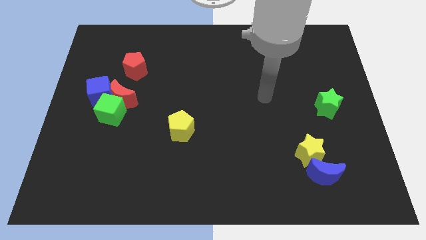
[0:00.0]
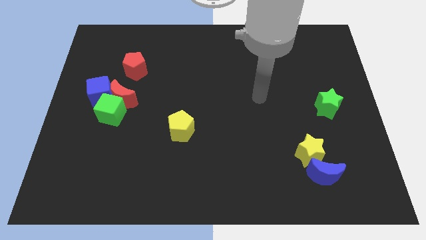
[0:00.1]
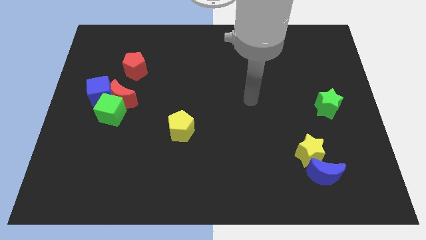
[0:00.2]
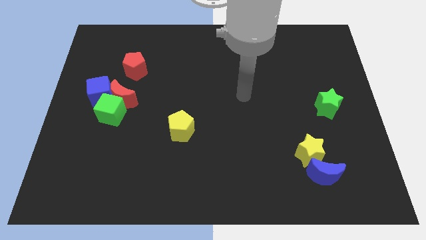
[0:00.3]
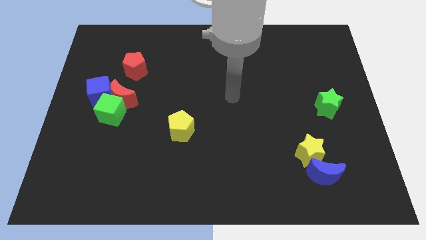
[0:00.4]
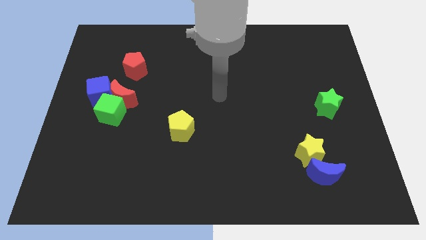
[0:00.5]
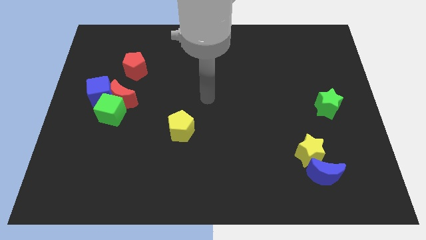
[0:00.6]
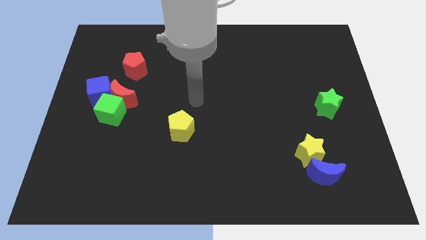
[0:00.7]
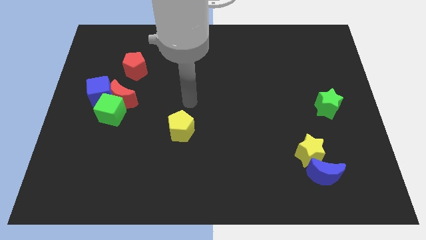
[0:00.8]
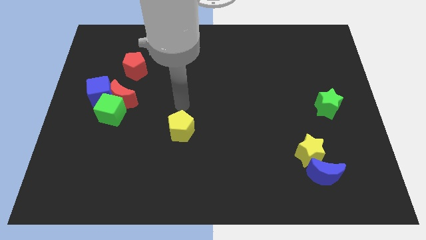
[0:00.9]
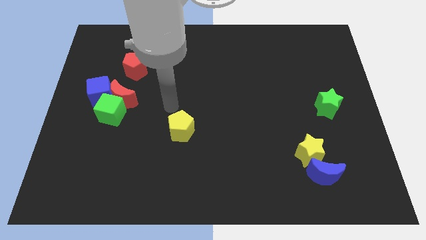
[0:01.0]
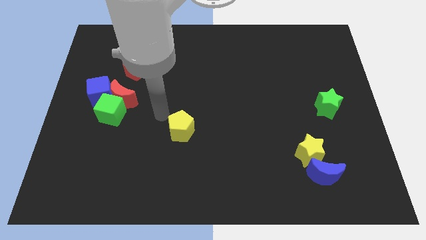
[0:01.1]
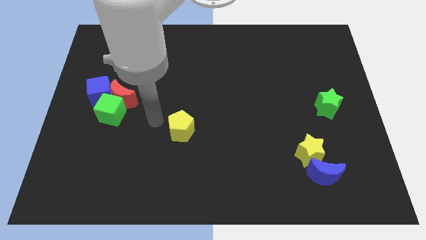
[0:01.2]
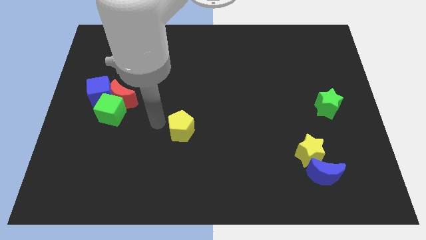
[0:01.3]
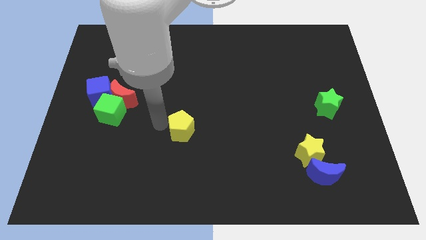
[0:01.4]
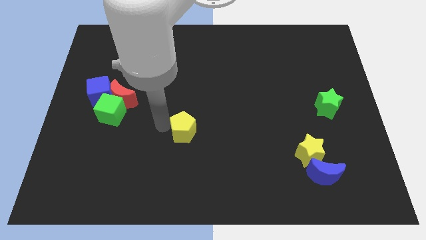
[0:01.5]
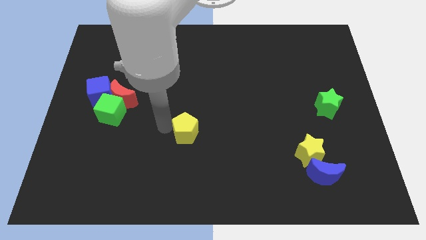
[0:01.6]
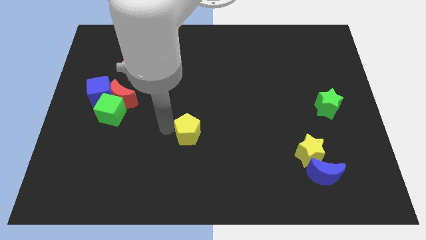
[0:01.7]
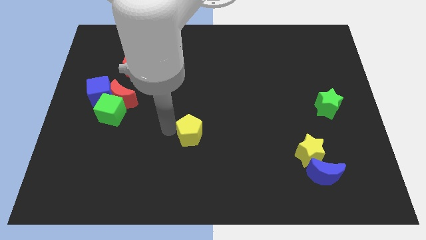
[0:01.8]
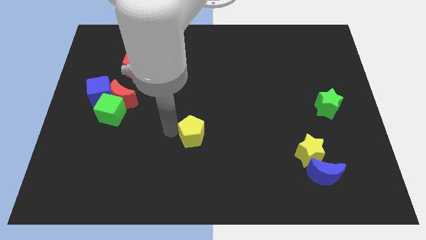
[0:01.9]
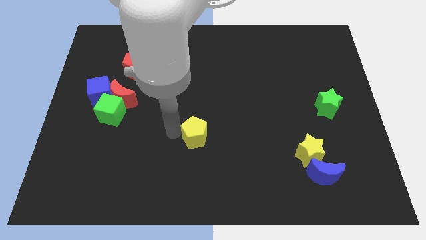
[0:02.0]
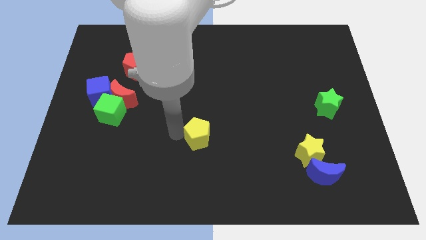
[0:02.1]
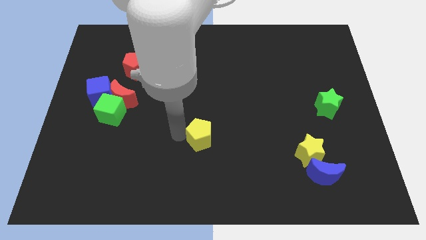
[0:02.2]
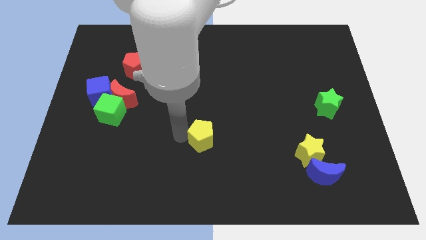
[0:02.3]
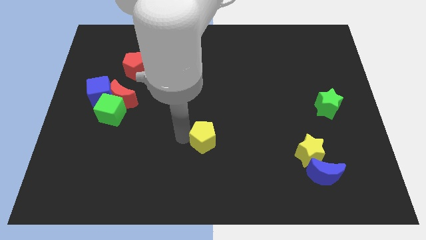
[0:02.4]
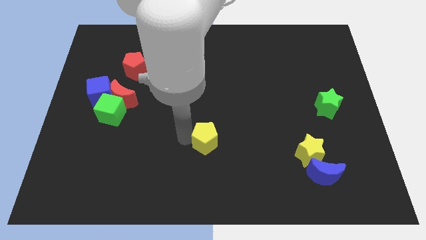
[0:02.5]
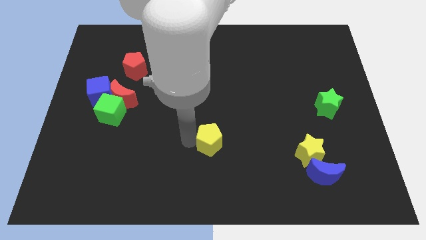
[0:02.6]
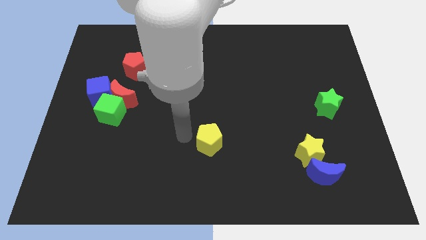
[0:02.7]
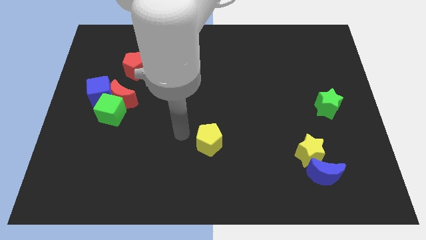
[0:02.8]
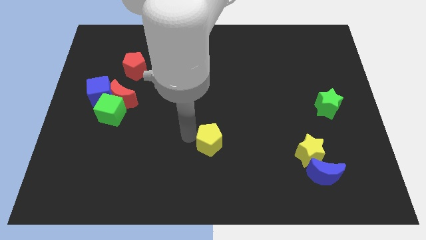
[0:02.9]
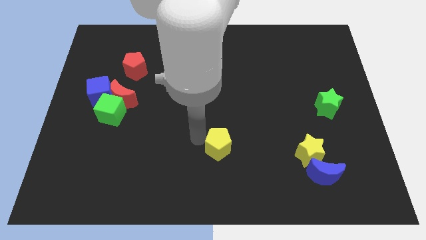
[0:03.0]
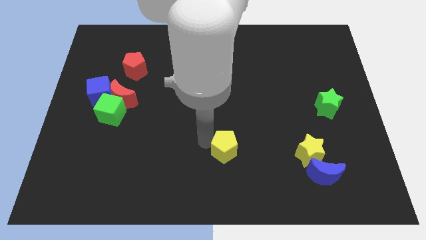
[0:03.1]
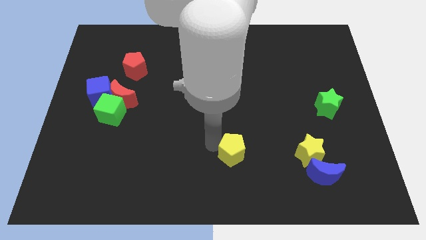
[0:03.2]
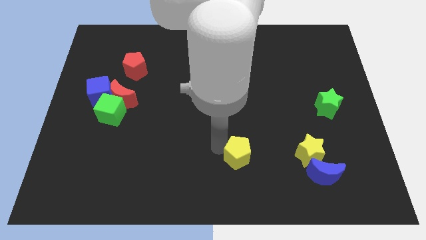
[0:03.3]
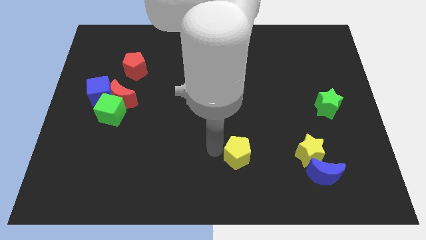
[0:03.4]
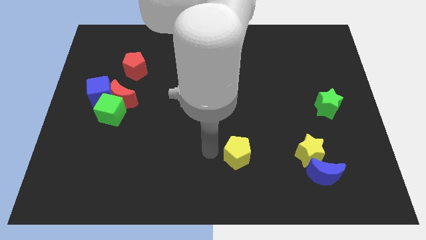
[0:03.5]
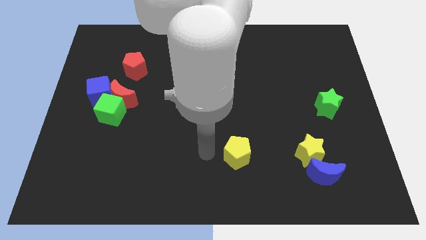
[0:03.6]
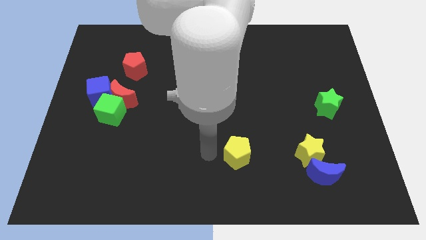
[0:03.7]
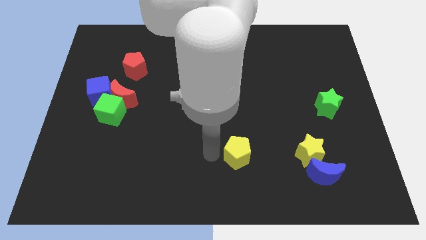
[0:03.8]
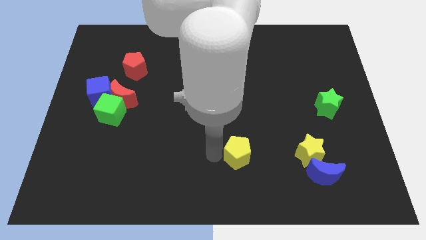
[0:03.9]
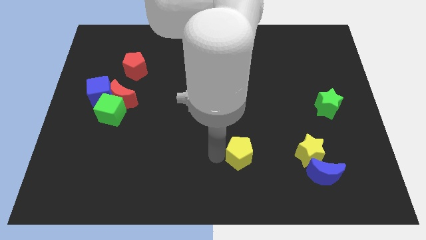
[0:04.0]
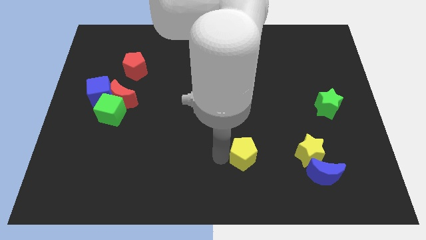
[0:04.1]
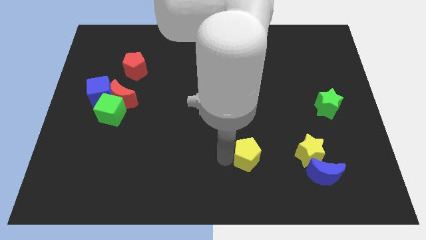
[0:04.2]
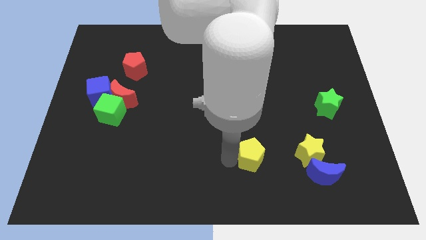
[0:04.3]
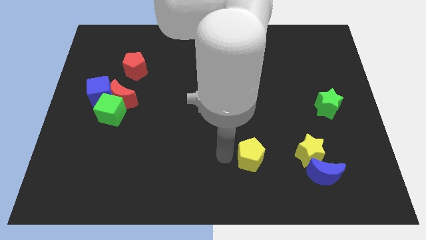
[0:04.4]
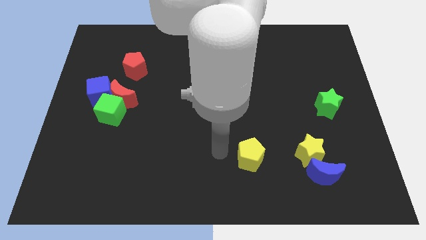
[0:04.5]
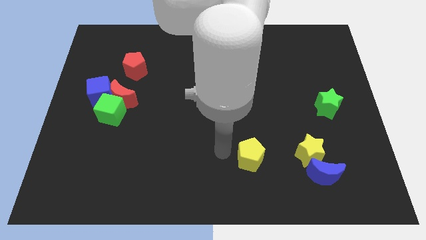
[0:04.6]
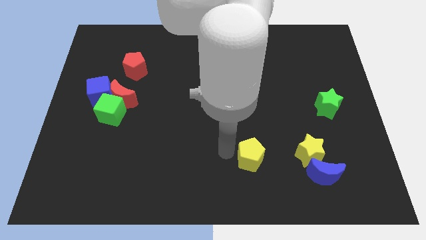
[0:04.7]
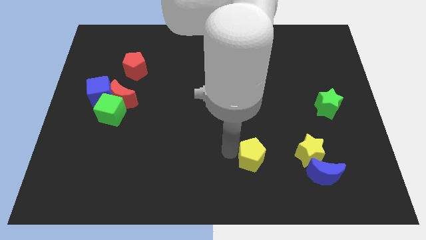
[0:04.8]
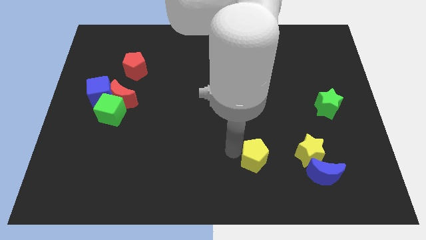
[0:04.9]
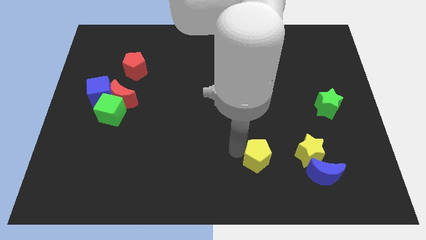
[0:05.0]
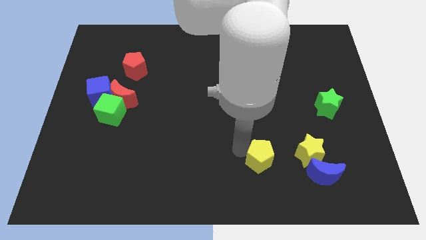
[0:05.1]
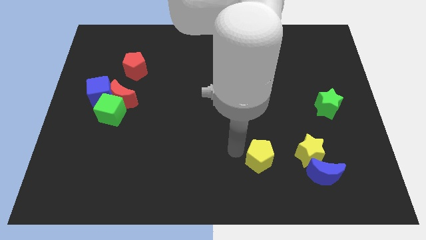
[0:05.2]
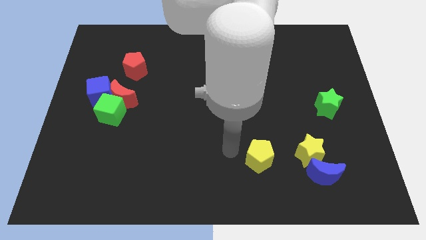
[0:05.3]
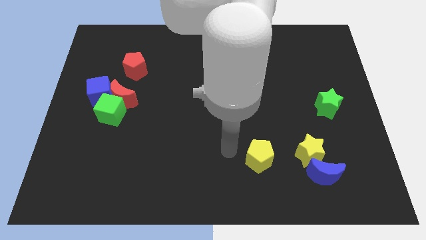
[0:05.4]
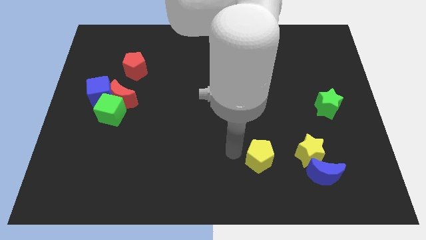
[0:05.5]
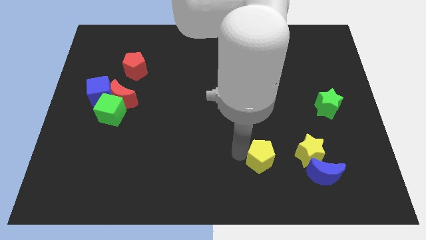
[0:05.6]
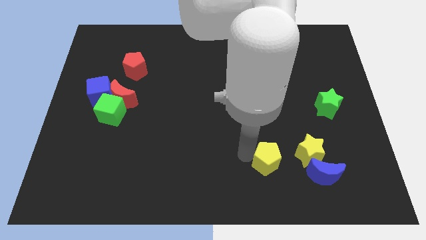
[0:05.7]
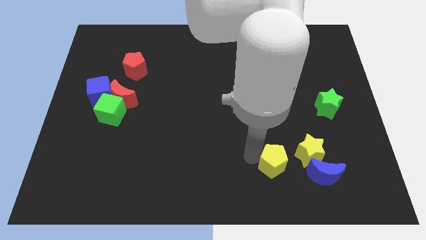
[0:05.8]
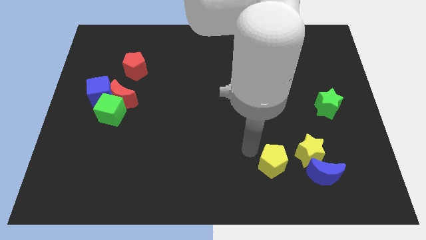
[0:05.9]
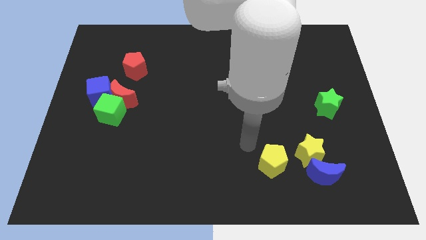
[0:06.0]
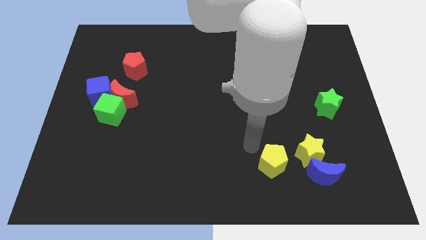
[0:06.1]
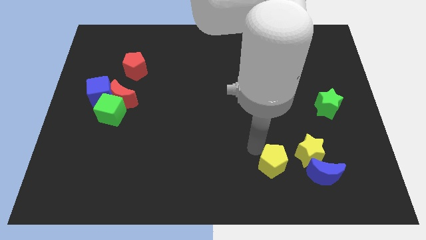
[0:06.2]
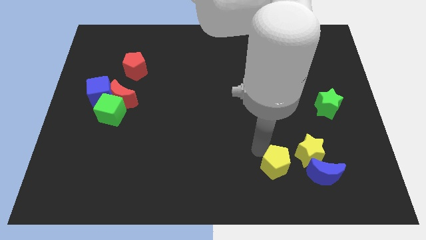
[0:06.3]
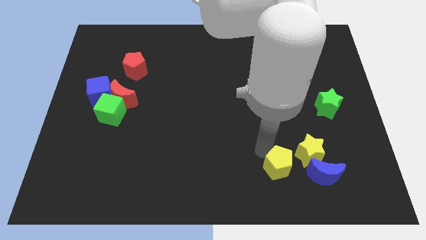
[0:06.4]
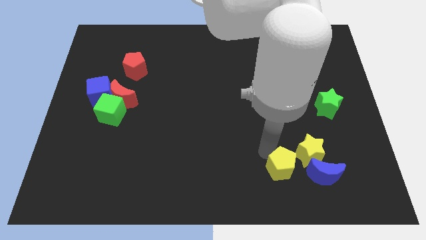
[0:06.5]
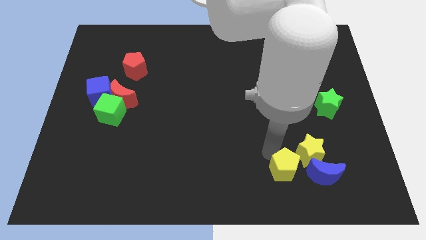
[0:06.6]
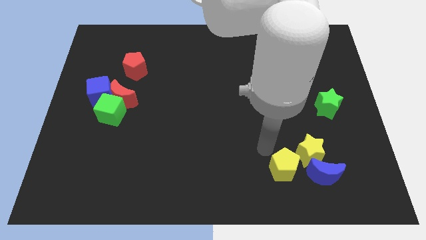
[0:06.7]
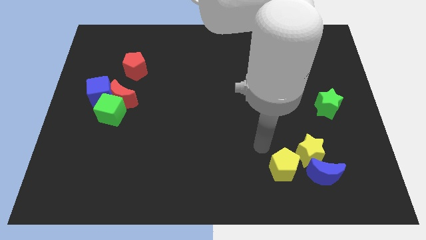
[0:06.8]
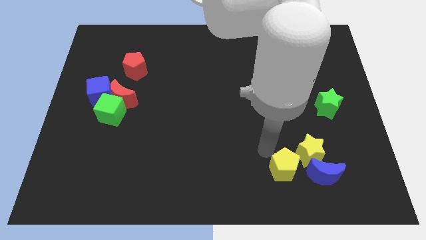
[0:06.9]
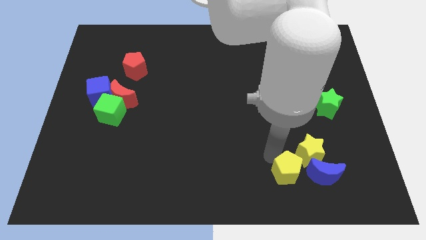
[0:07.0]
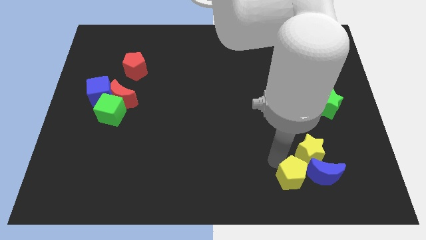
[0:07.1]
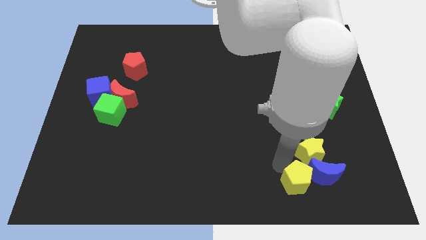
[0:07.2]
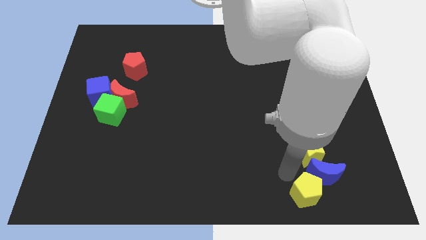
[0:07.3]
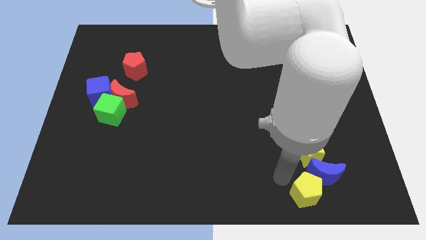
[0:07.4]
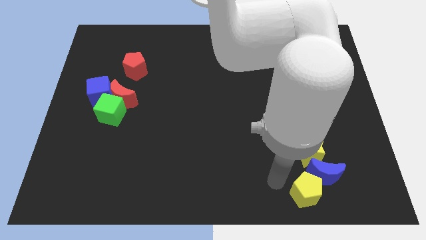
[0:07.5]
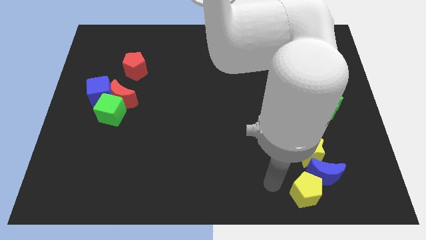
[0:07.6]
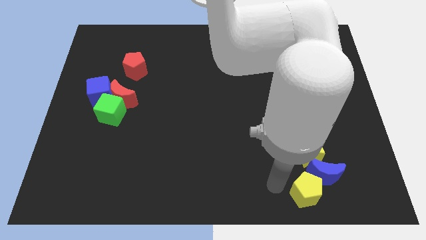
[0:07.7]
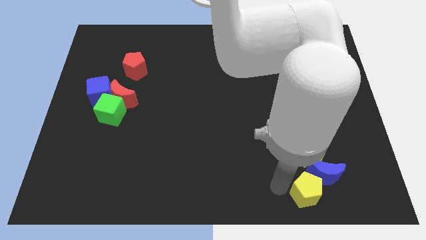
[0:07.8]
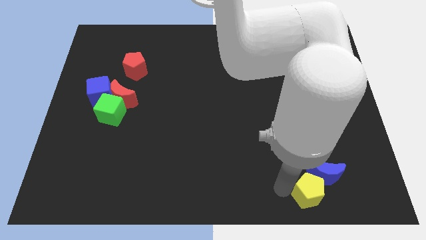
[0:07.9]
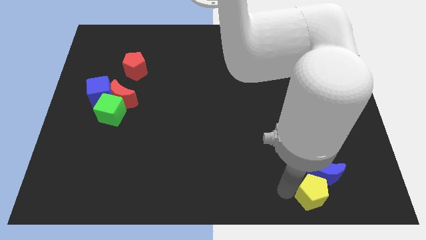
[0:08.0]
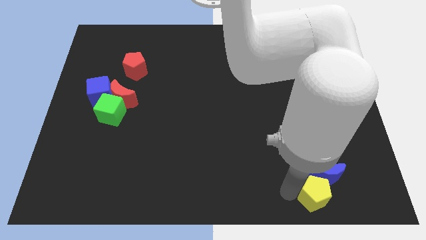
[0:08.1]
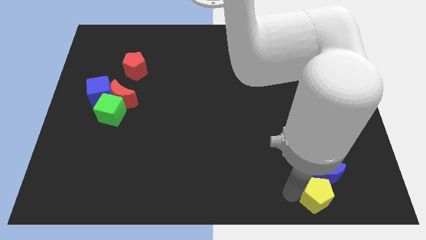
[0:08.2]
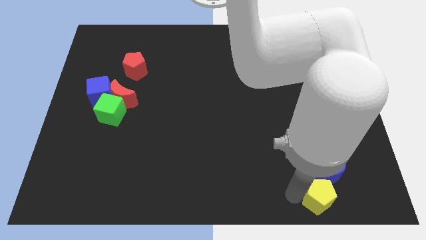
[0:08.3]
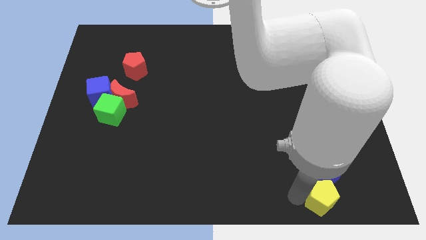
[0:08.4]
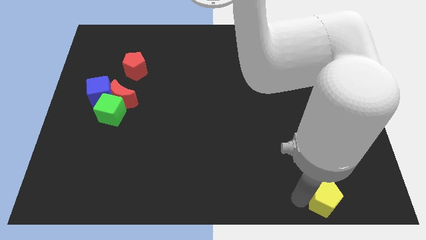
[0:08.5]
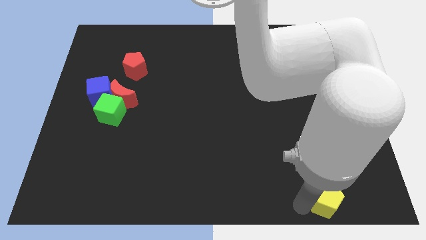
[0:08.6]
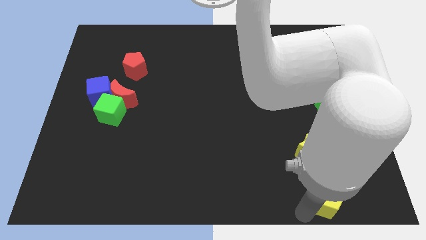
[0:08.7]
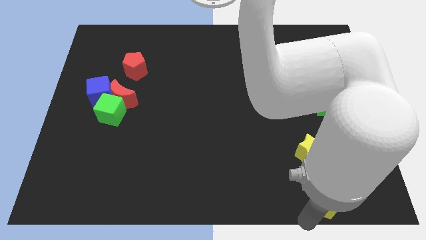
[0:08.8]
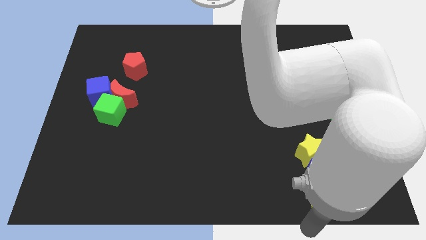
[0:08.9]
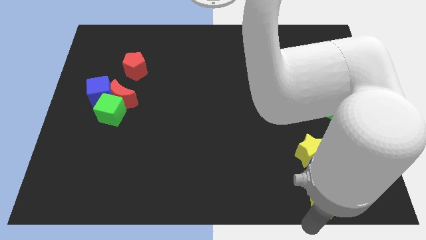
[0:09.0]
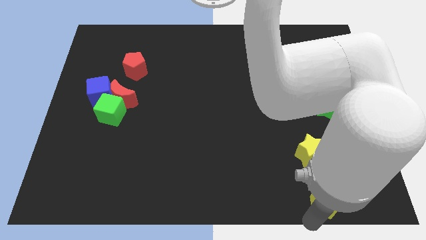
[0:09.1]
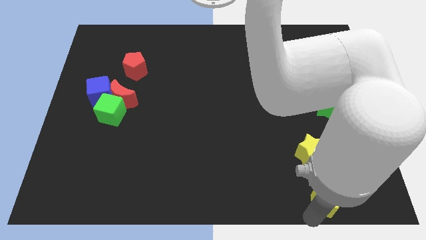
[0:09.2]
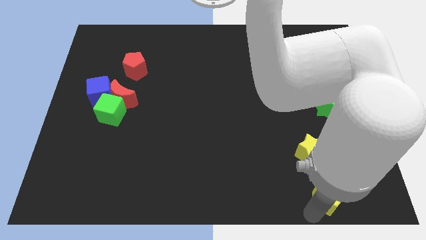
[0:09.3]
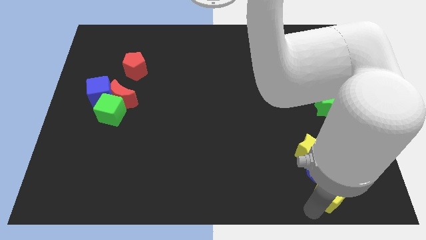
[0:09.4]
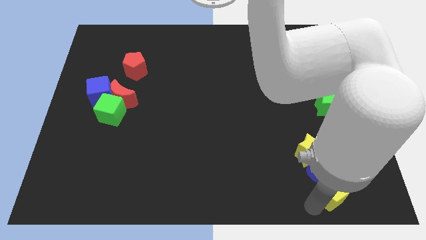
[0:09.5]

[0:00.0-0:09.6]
put the yellow pentagon to the bottom right of the yellow star
